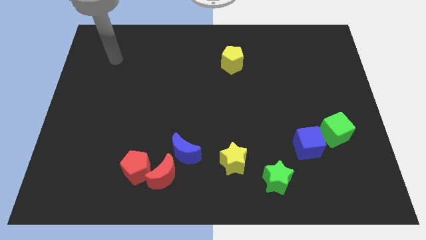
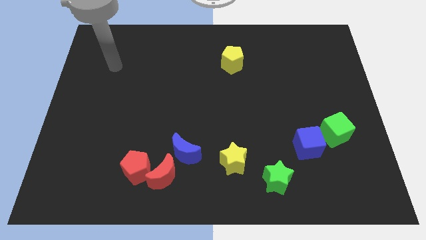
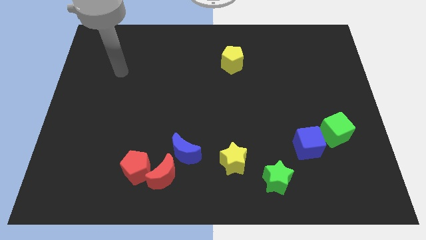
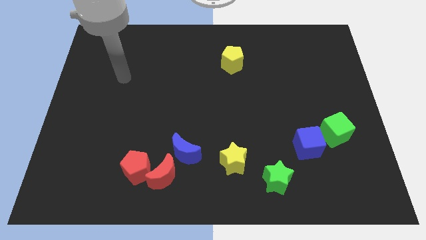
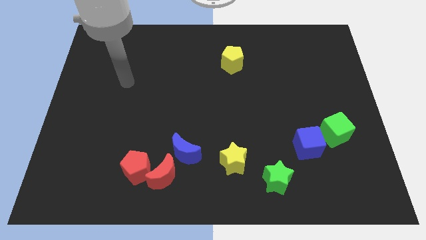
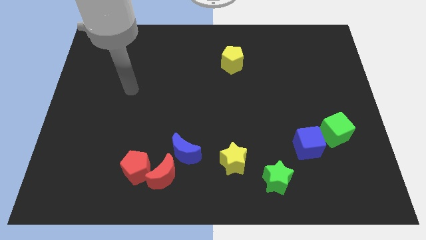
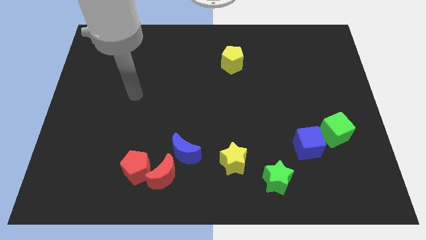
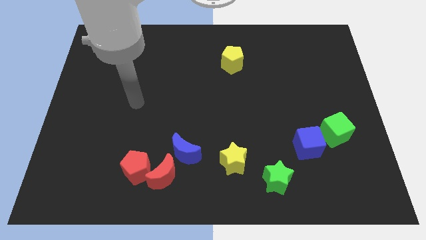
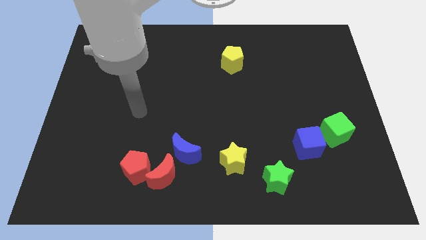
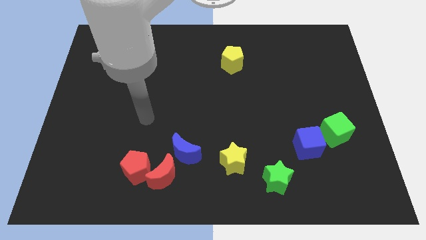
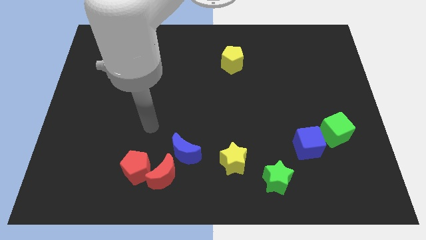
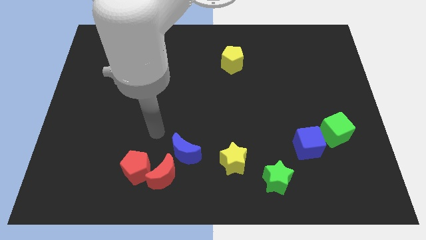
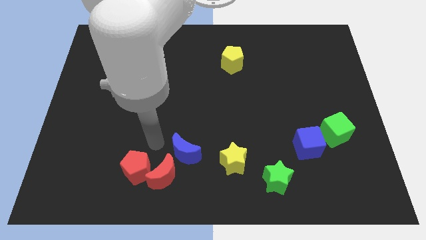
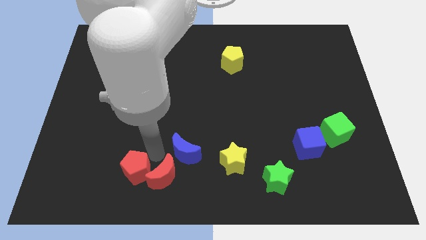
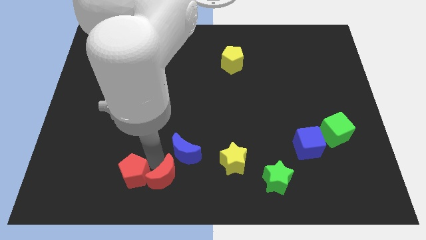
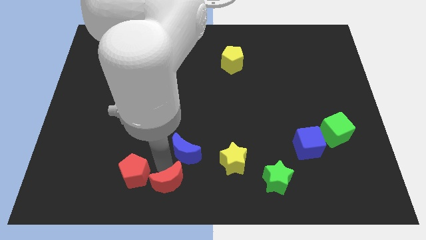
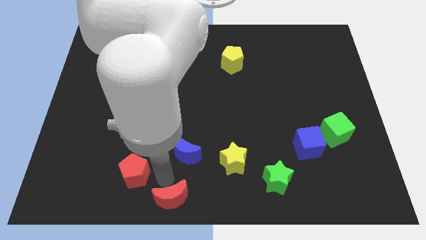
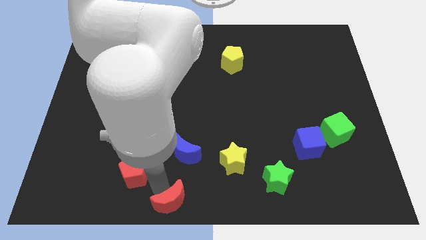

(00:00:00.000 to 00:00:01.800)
pull the red pentagon apart from the red moon

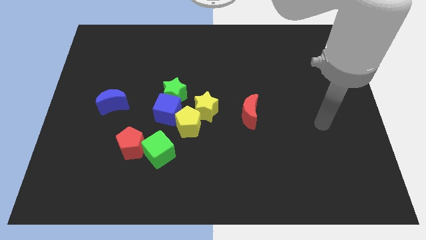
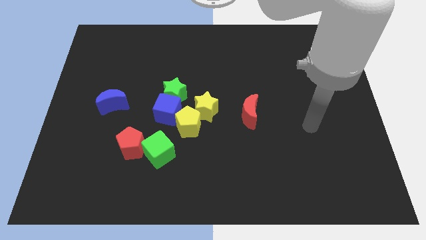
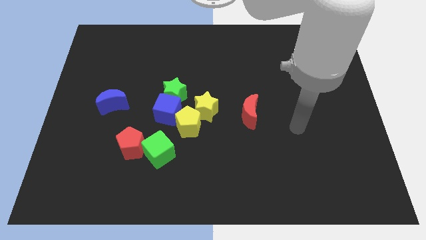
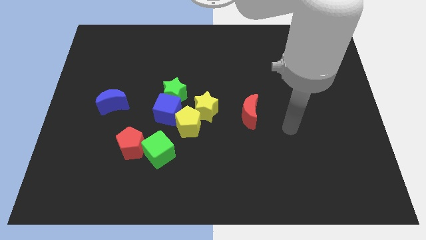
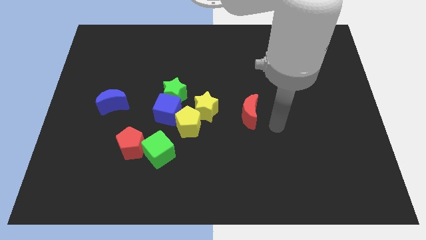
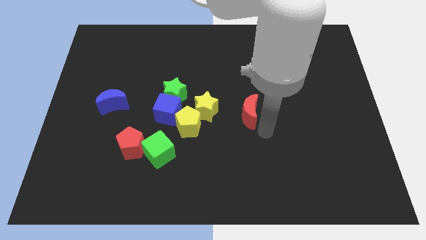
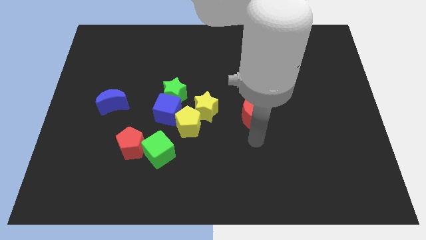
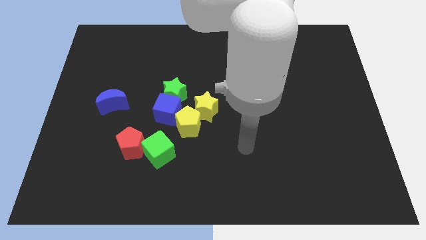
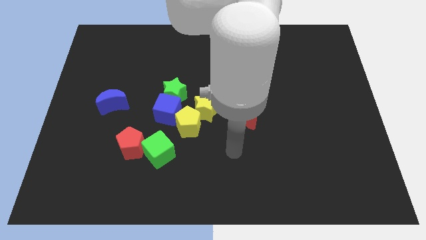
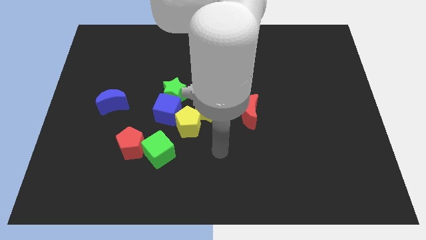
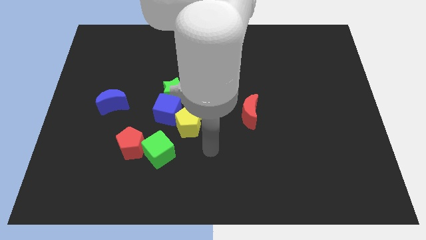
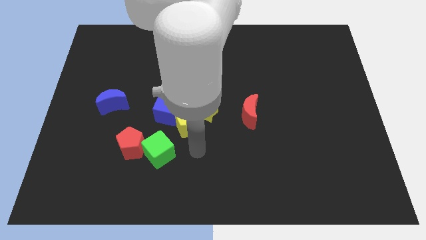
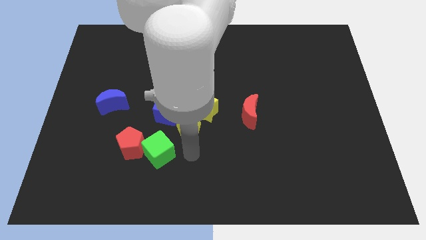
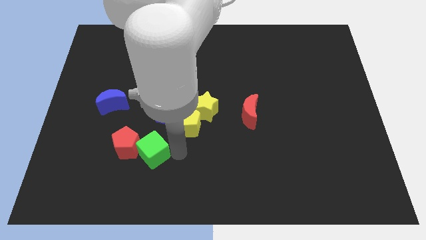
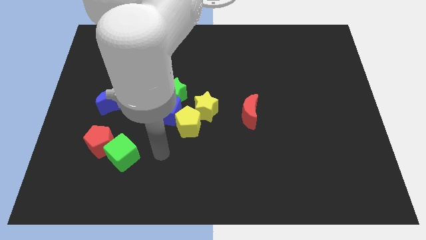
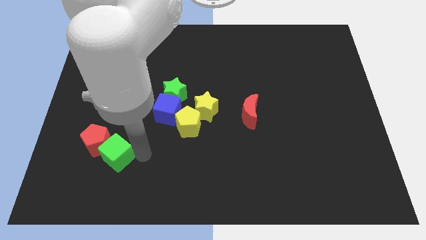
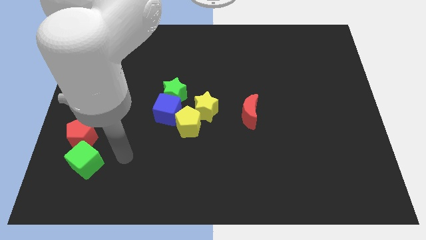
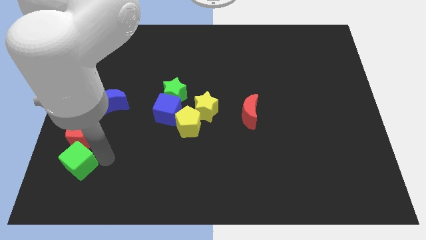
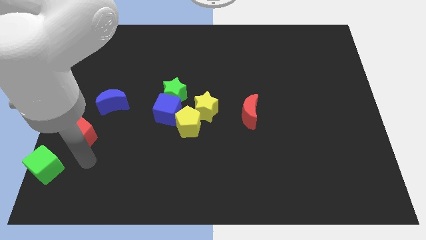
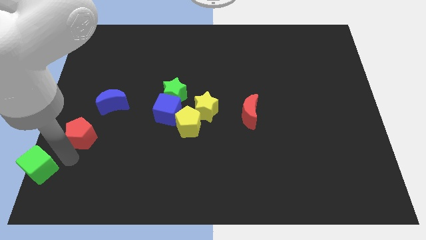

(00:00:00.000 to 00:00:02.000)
move the red pentagon away from the green cube

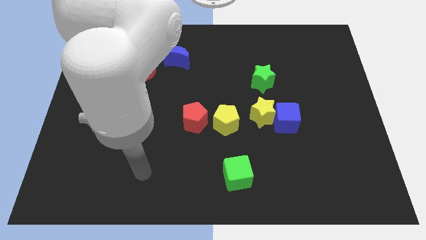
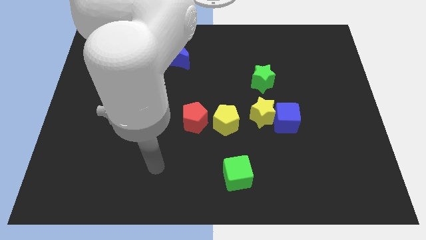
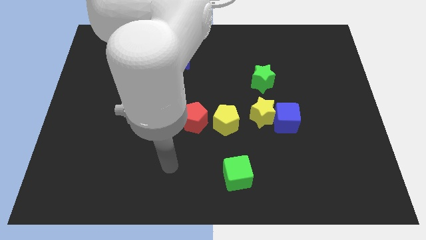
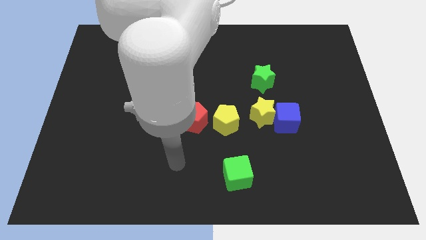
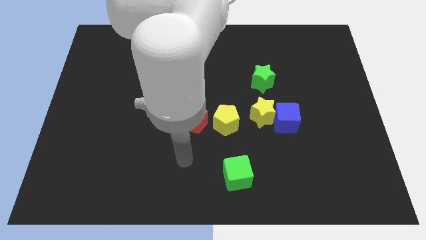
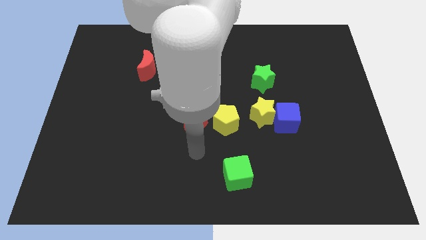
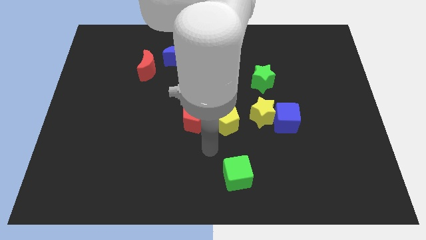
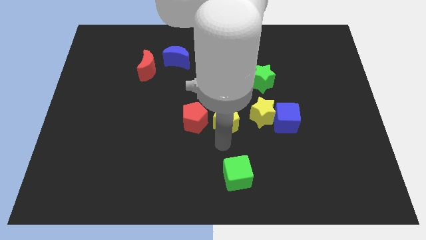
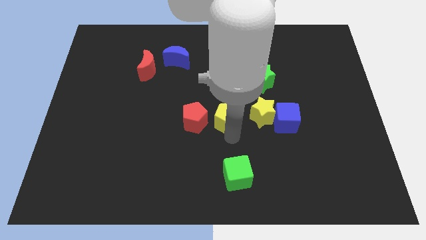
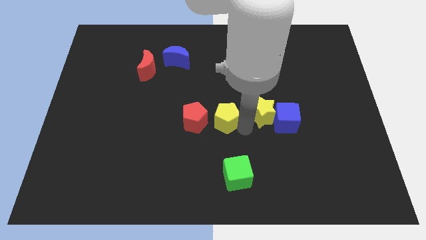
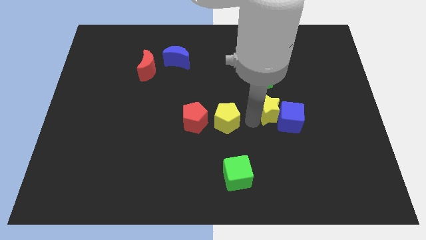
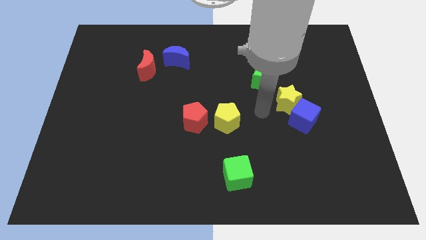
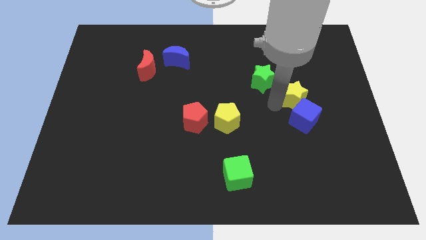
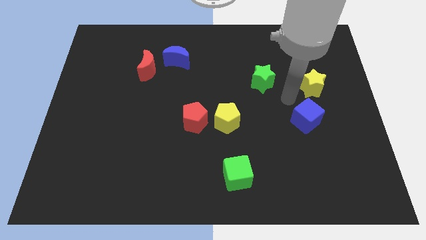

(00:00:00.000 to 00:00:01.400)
separate the blue cube from the yellow star

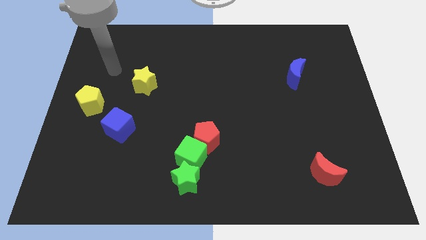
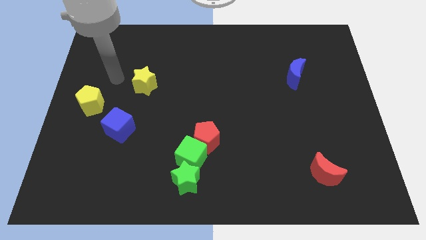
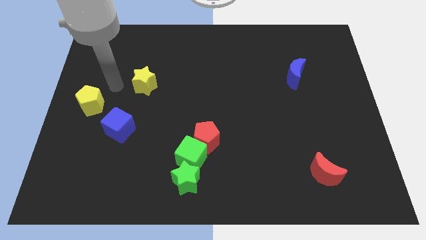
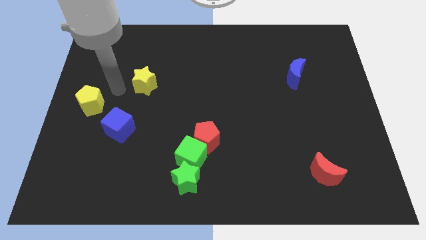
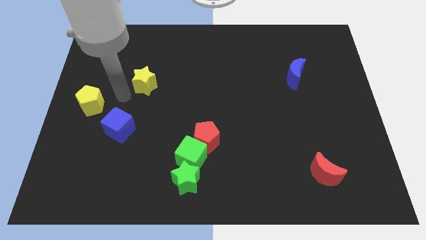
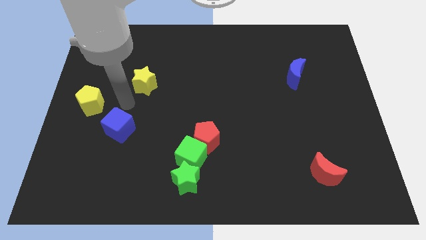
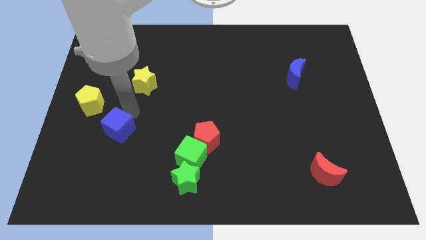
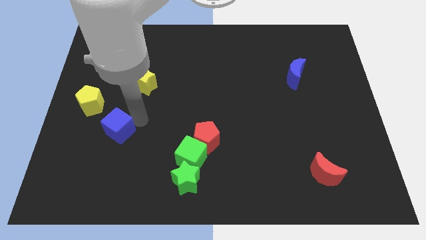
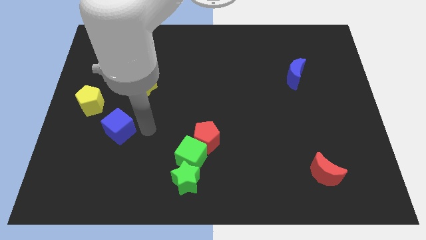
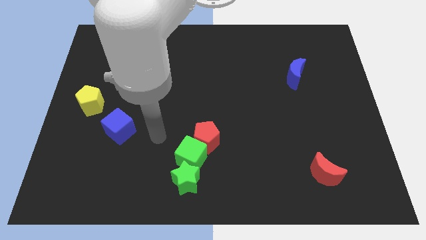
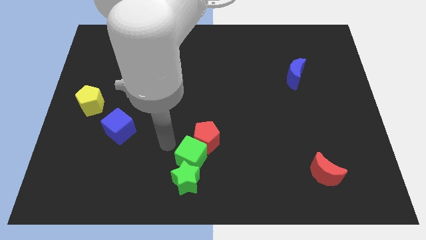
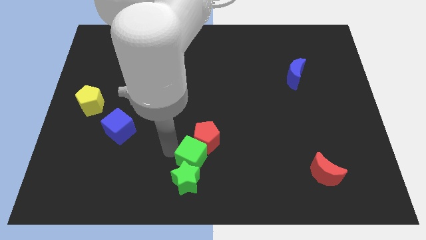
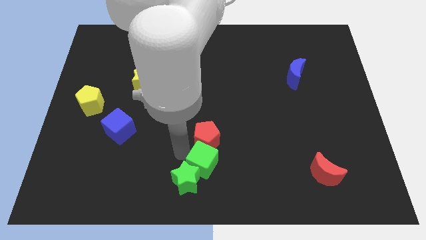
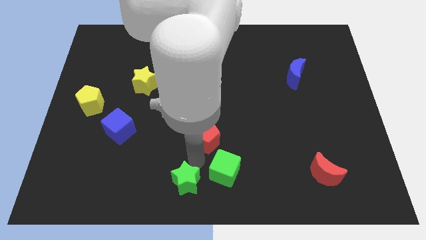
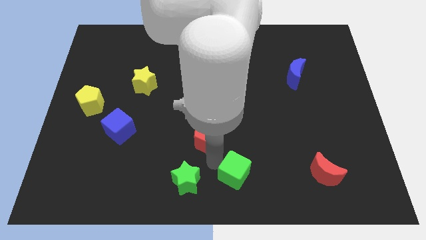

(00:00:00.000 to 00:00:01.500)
separate the red pentagon from the green cube

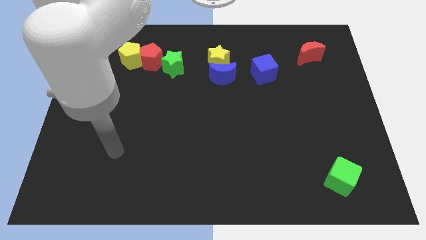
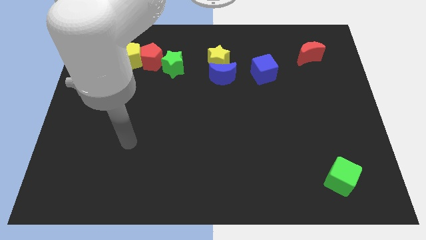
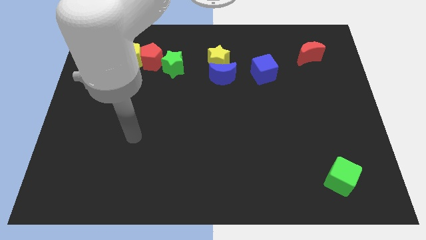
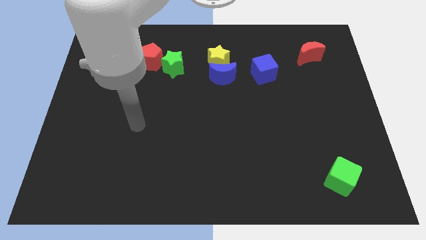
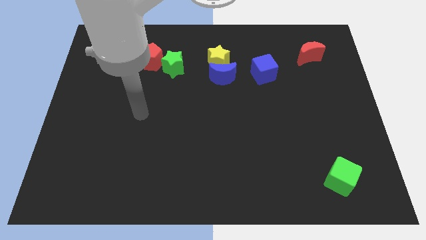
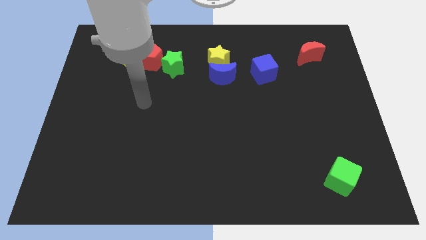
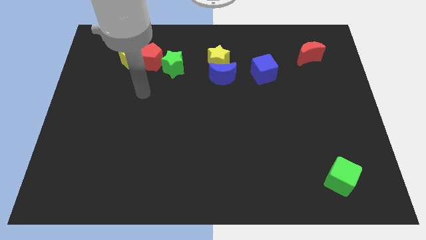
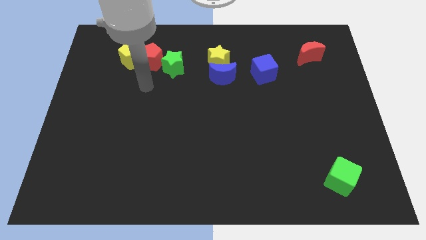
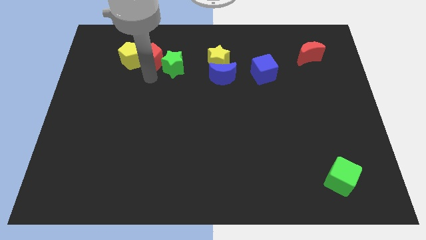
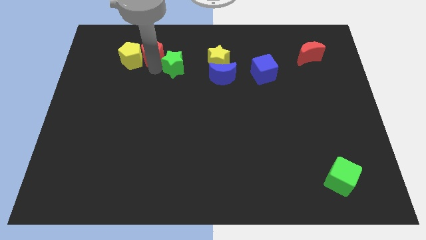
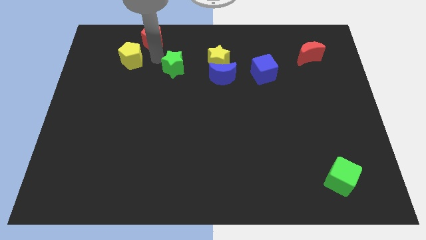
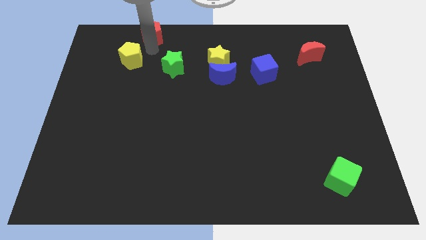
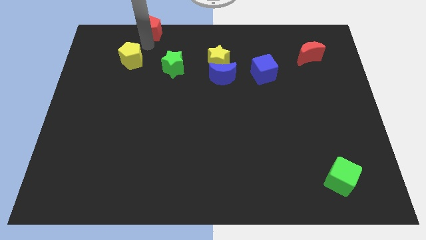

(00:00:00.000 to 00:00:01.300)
separate the yellow pentagon from the red pentagon

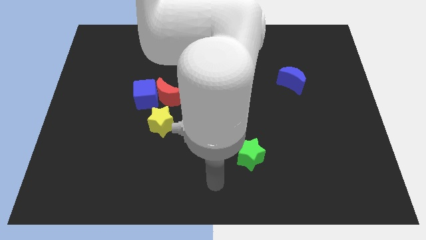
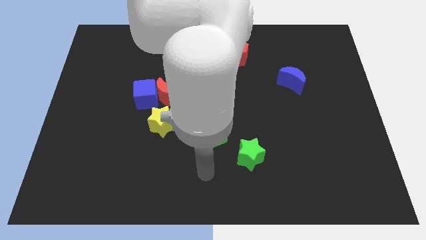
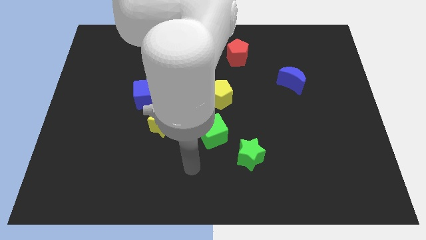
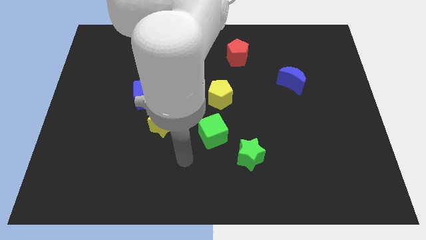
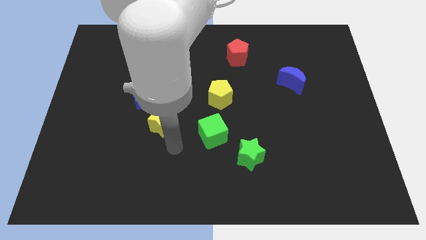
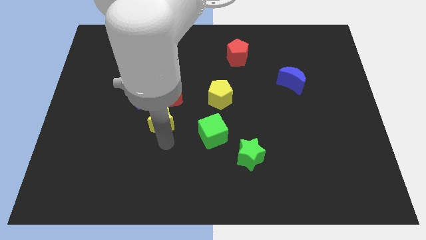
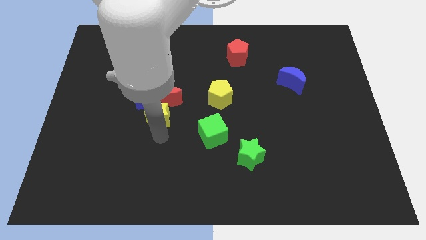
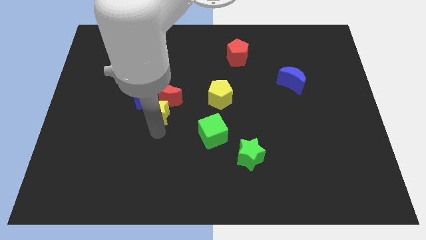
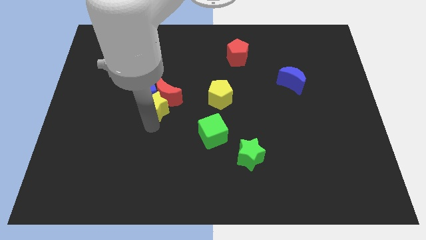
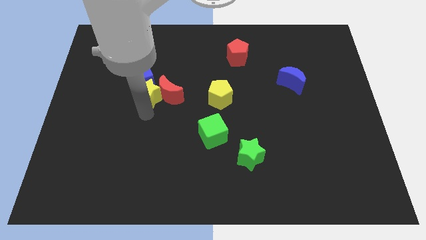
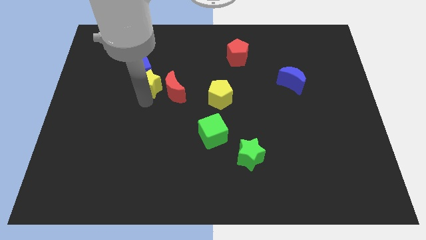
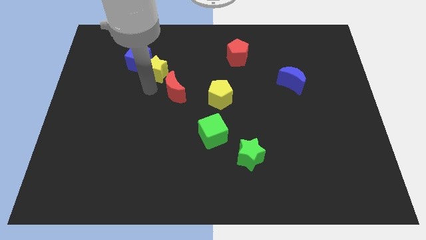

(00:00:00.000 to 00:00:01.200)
separate the red moon from the blue cube and yellow star
